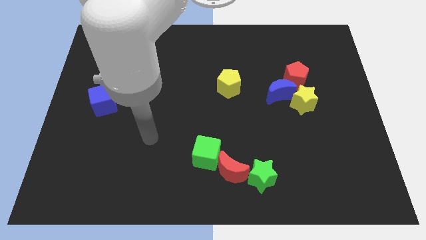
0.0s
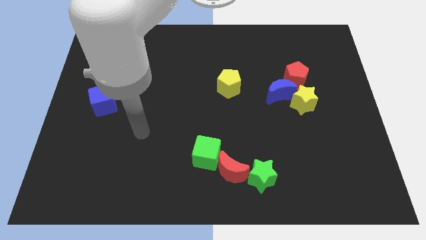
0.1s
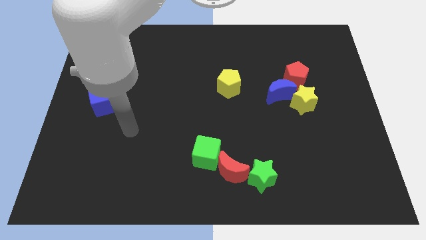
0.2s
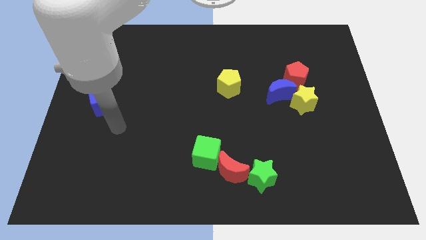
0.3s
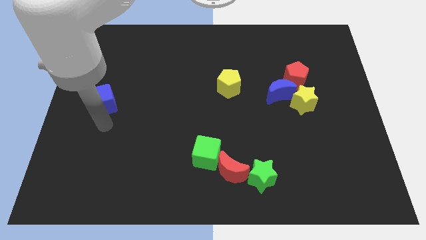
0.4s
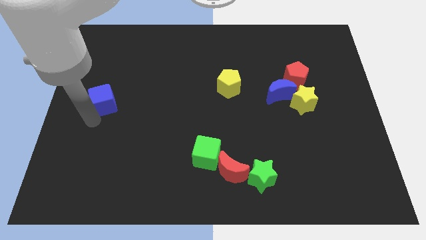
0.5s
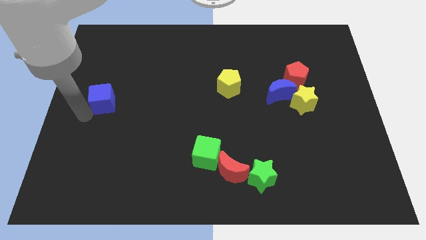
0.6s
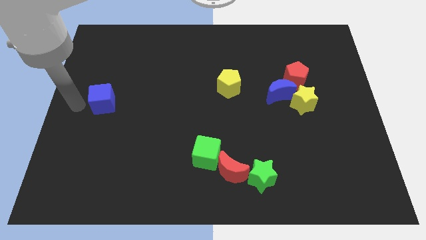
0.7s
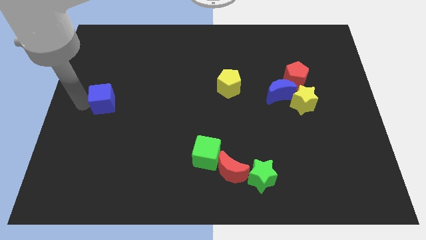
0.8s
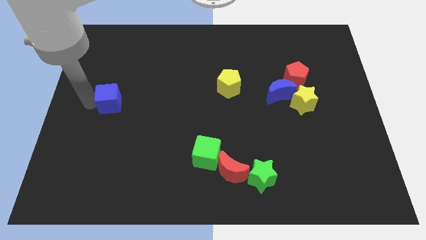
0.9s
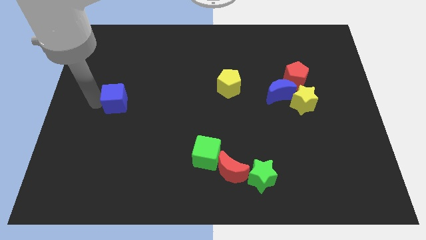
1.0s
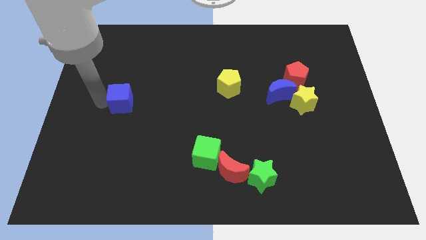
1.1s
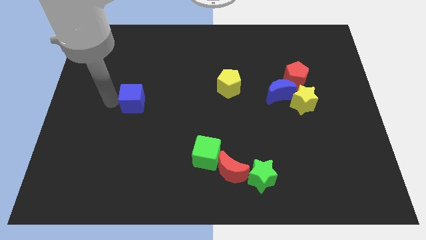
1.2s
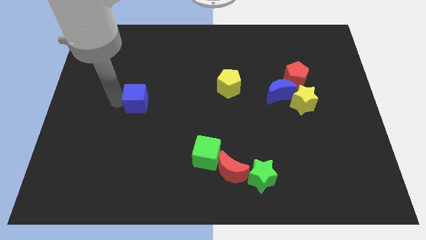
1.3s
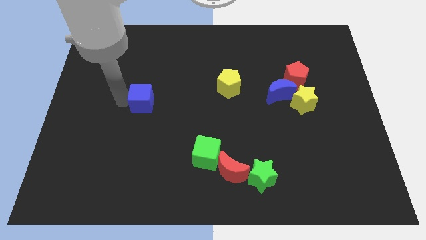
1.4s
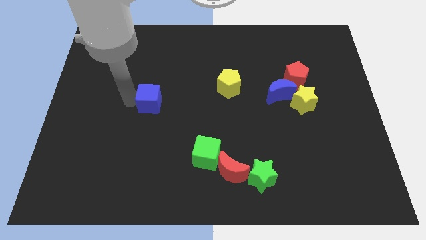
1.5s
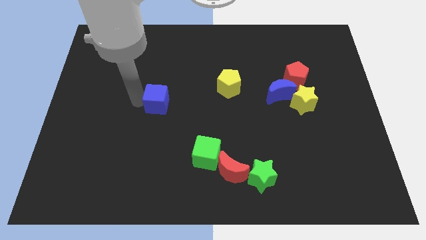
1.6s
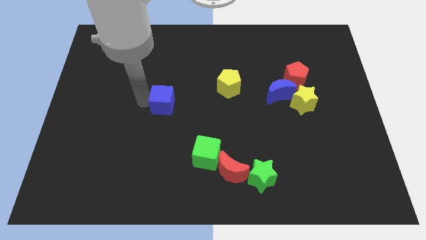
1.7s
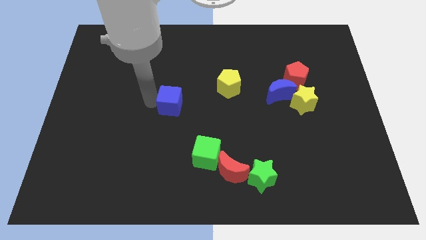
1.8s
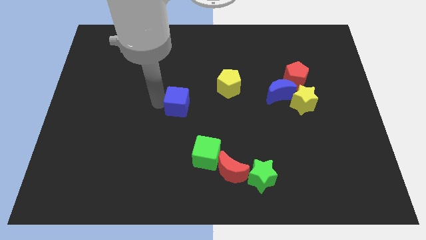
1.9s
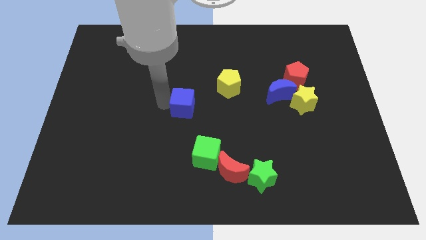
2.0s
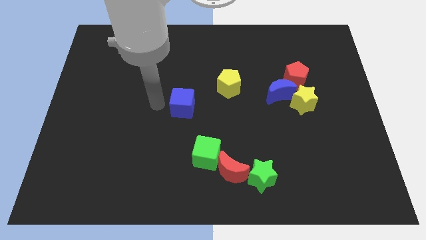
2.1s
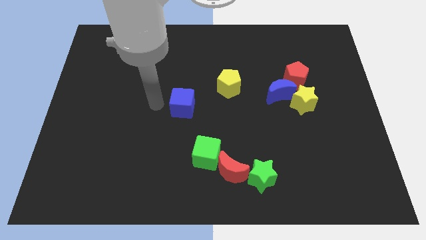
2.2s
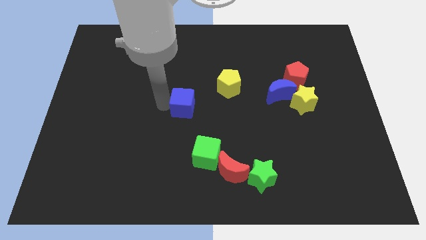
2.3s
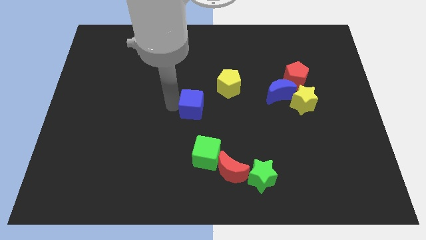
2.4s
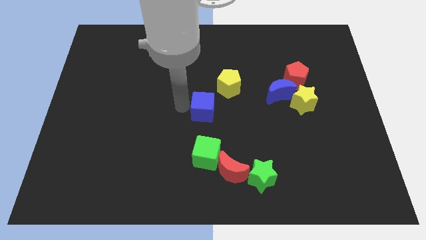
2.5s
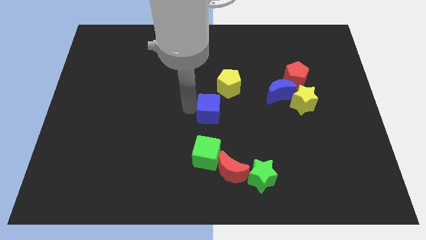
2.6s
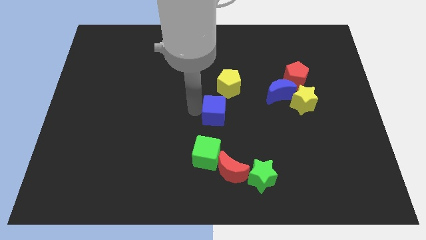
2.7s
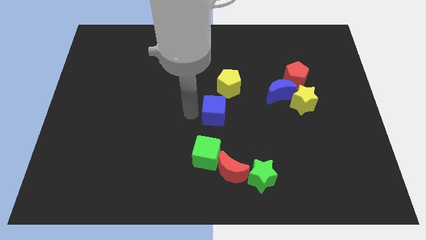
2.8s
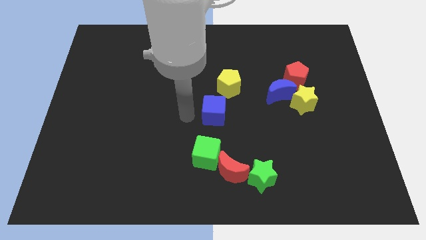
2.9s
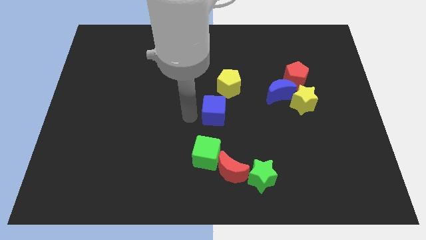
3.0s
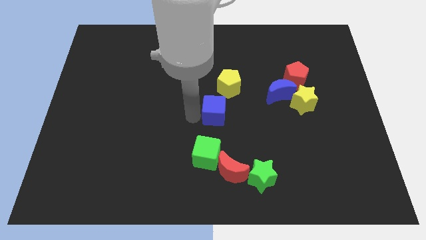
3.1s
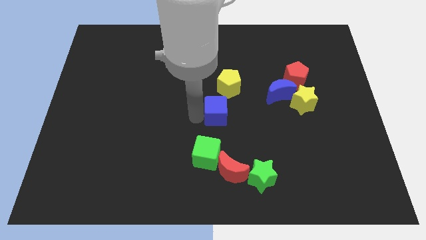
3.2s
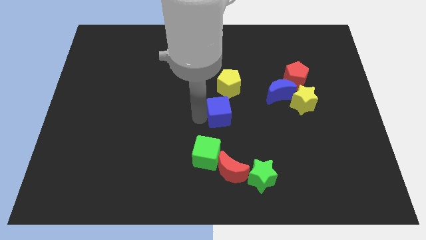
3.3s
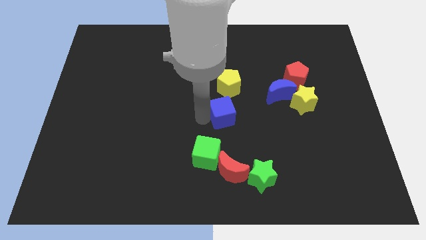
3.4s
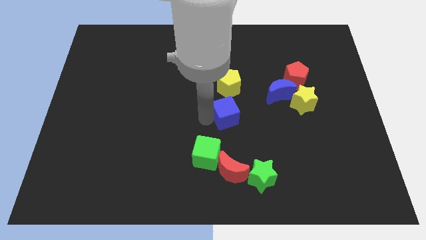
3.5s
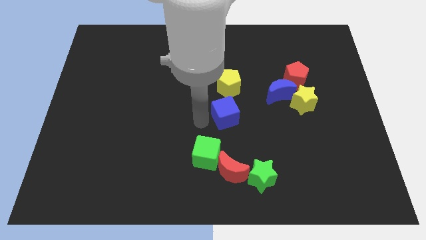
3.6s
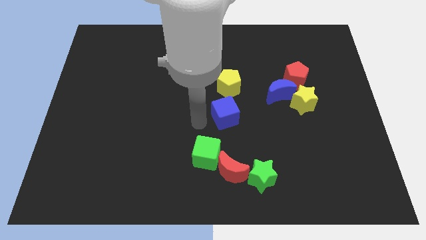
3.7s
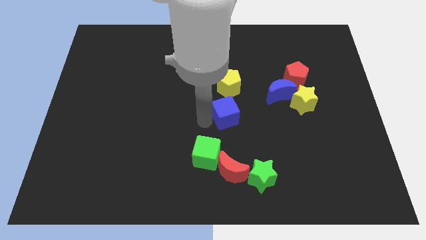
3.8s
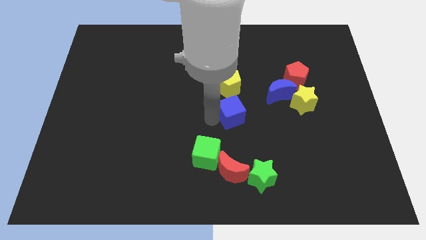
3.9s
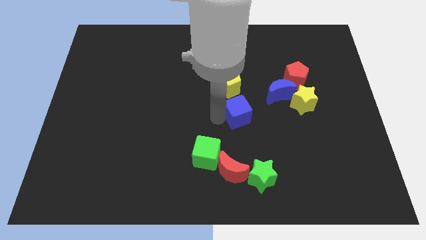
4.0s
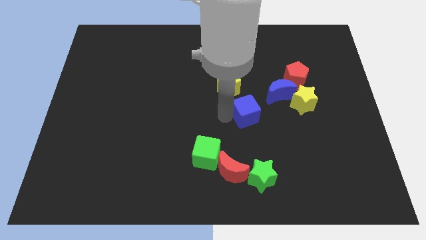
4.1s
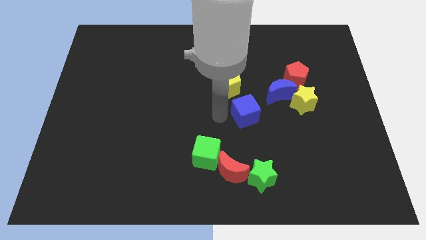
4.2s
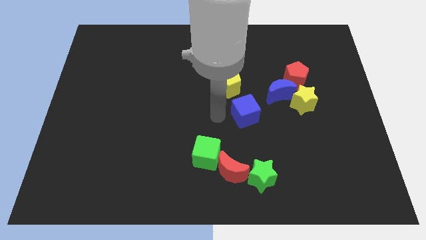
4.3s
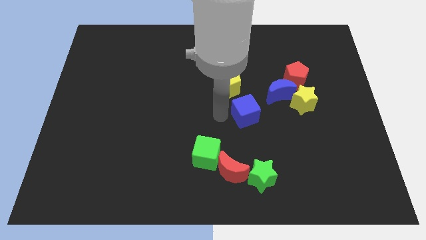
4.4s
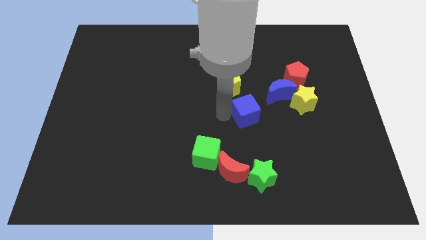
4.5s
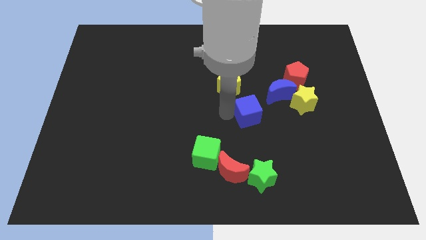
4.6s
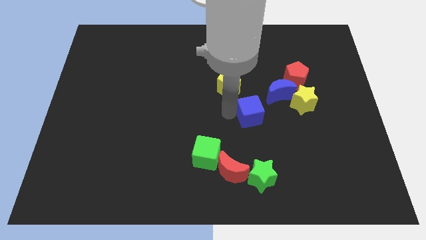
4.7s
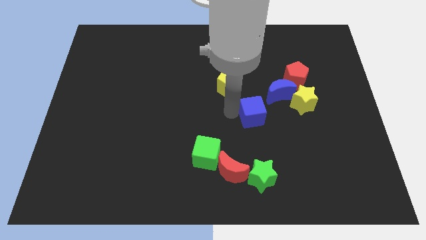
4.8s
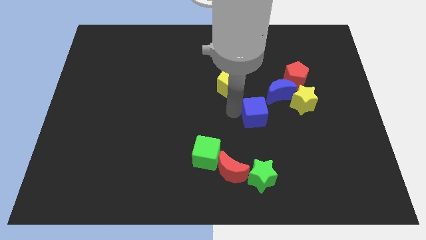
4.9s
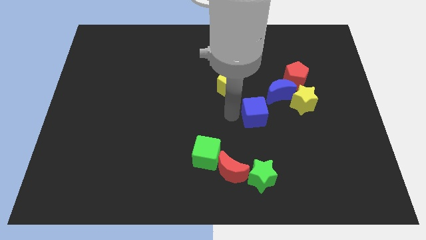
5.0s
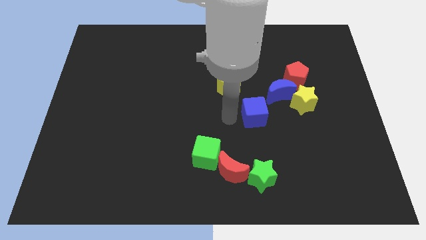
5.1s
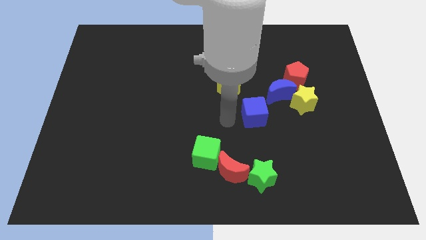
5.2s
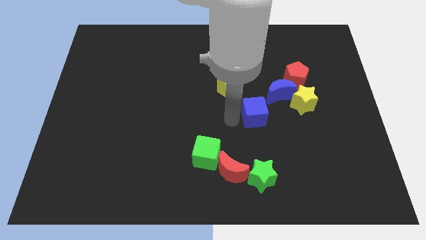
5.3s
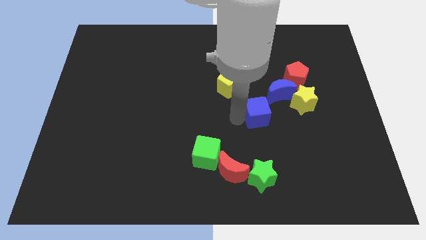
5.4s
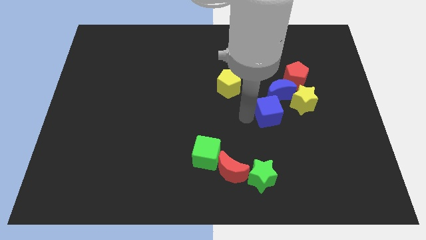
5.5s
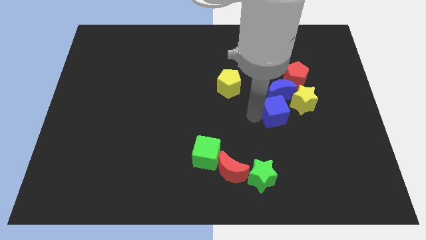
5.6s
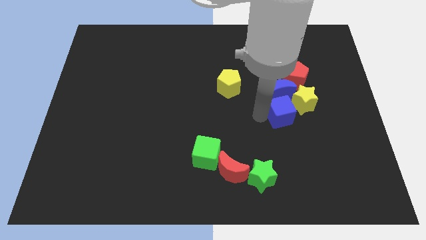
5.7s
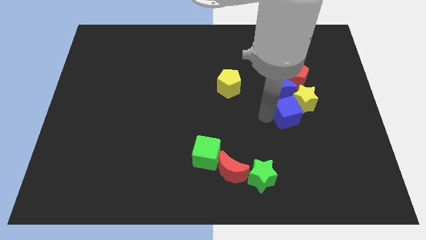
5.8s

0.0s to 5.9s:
slide the blue cube close to the yellow star

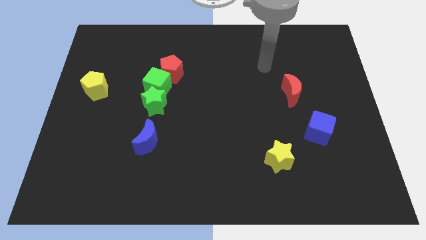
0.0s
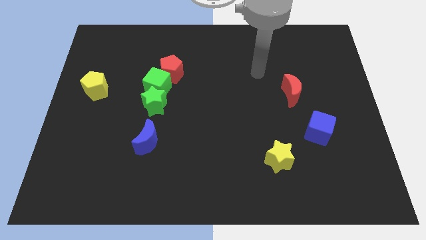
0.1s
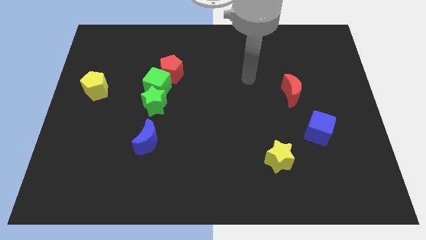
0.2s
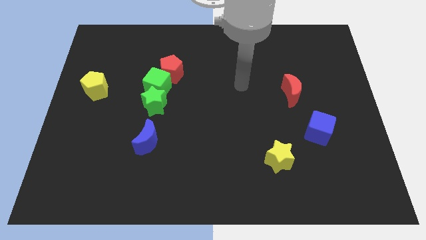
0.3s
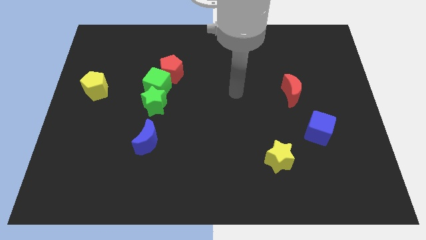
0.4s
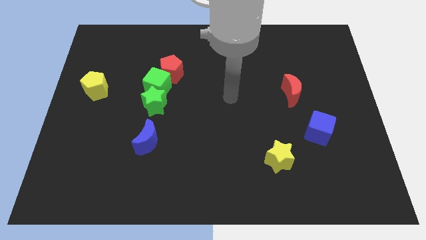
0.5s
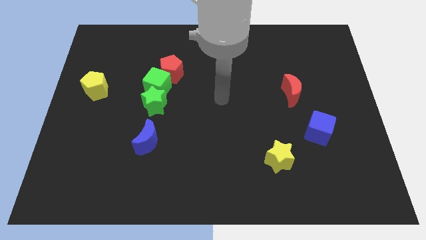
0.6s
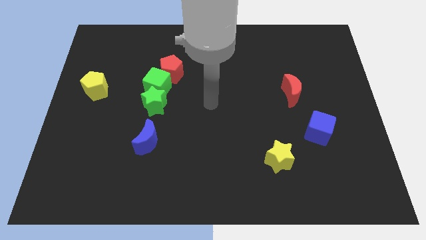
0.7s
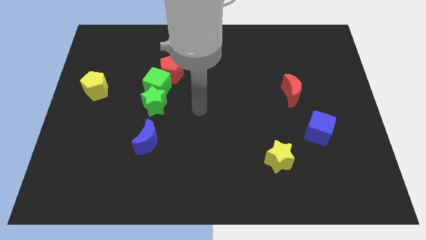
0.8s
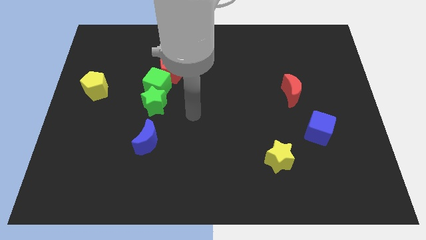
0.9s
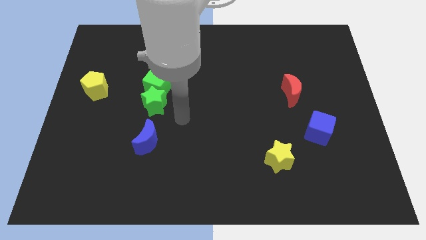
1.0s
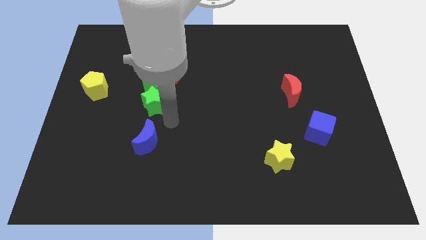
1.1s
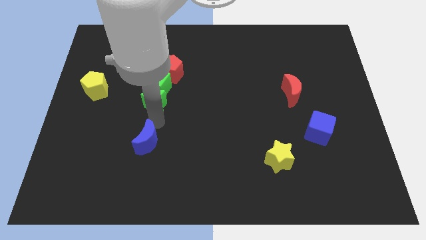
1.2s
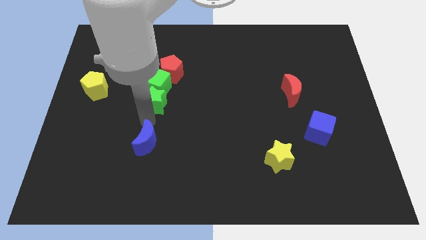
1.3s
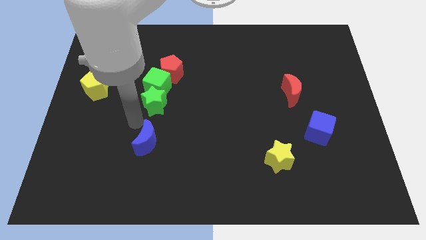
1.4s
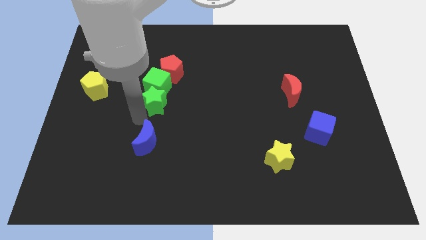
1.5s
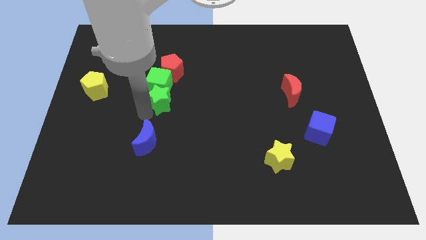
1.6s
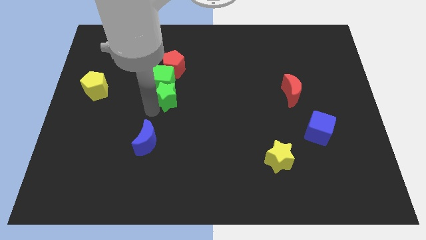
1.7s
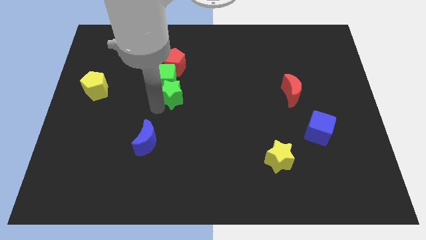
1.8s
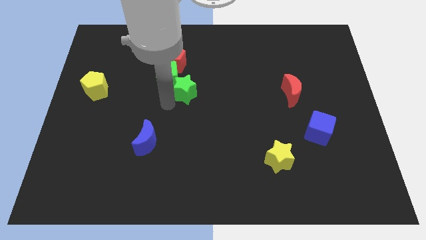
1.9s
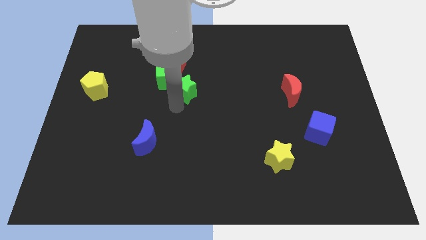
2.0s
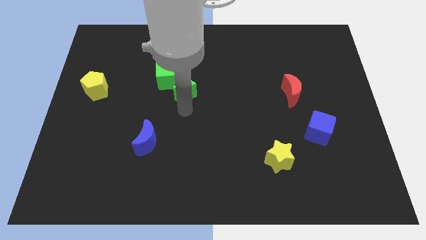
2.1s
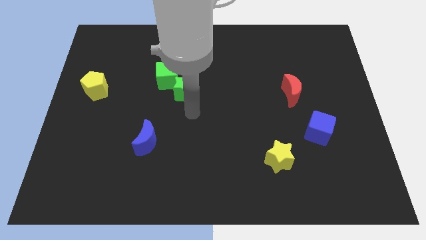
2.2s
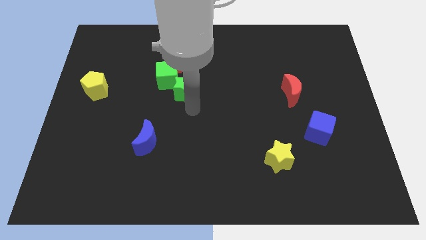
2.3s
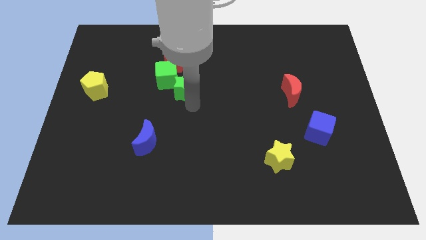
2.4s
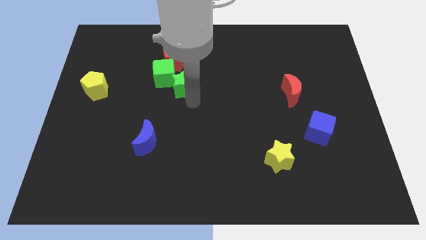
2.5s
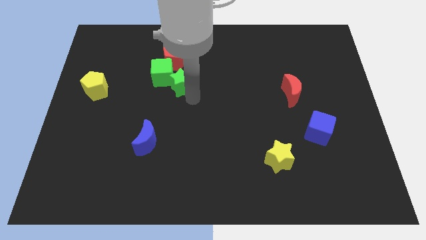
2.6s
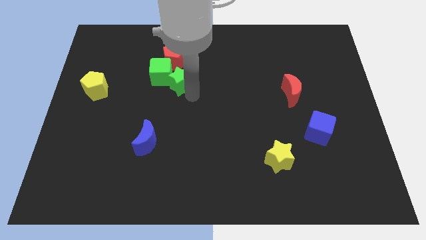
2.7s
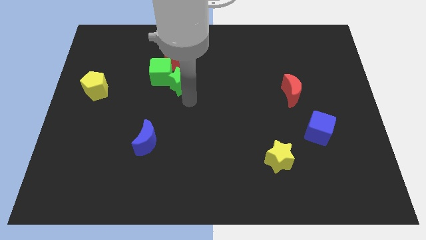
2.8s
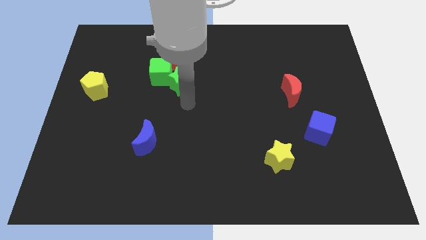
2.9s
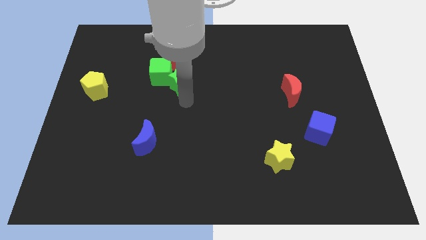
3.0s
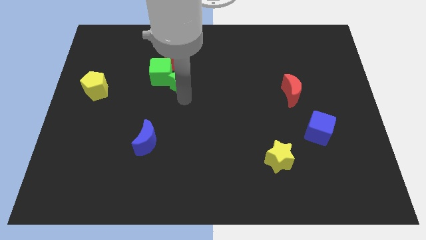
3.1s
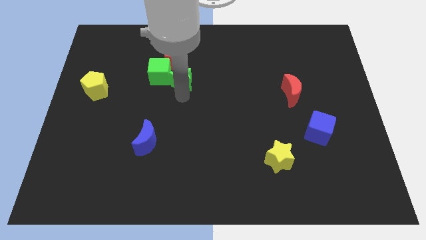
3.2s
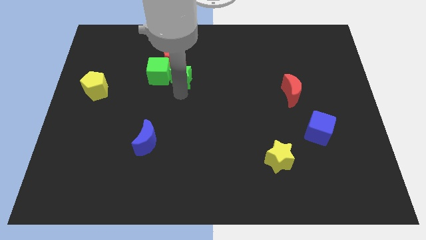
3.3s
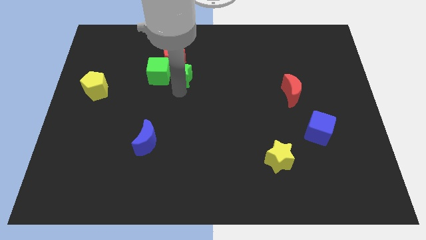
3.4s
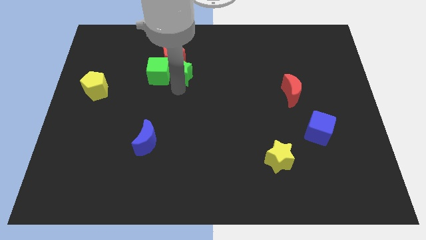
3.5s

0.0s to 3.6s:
slide the green star towards the red pentagon
